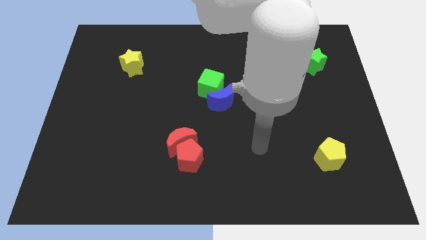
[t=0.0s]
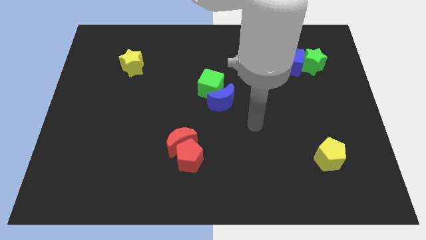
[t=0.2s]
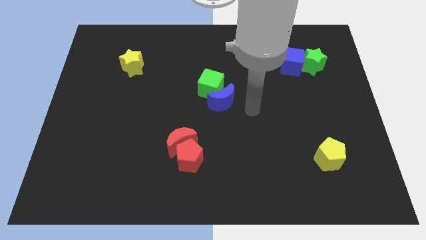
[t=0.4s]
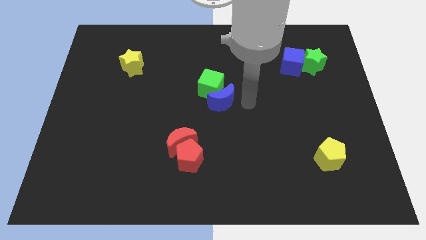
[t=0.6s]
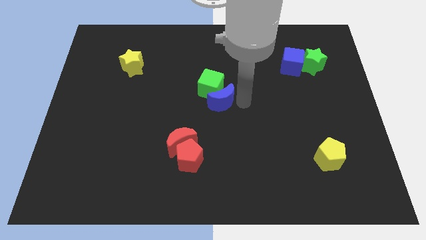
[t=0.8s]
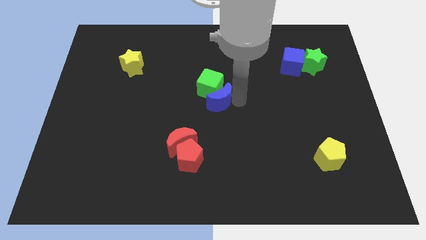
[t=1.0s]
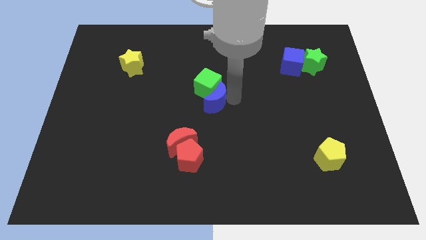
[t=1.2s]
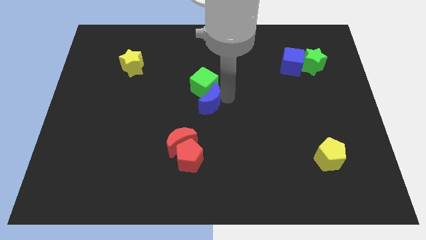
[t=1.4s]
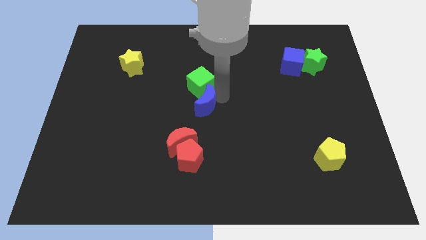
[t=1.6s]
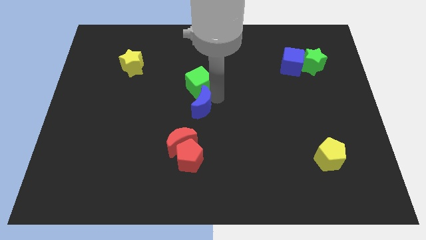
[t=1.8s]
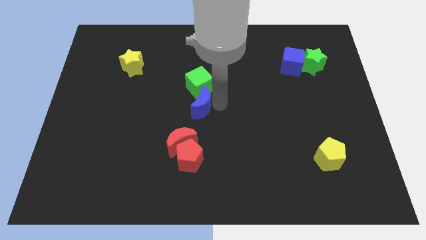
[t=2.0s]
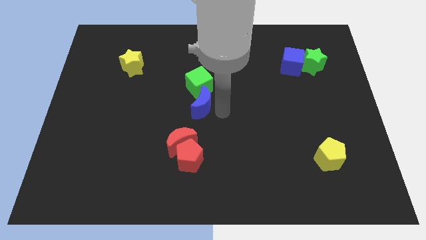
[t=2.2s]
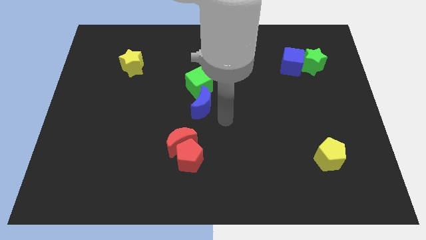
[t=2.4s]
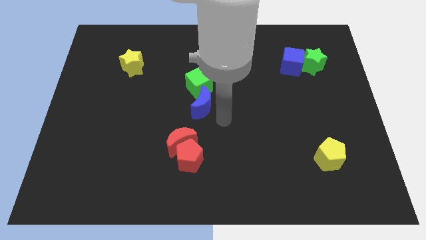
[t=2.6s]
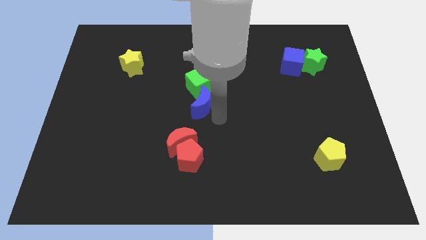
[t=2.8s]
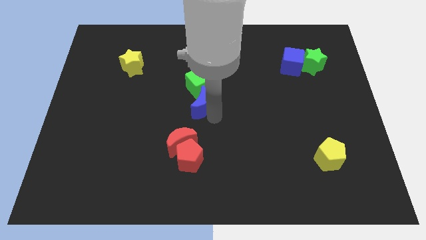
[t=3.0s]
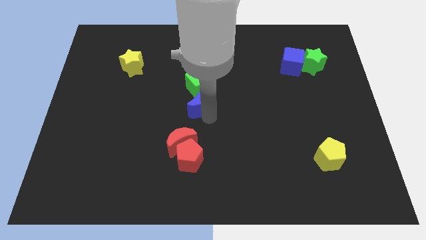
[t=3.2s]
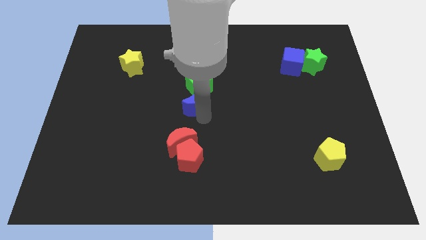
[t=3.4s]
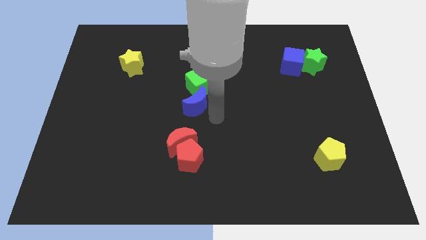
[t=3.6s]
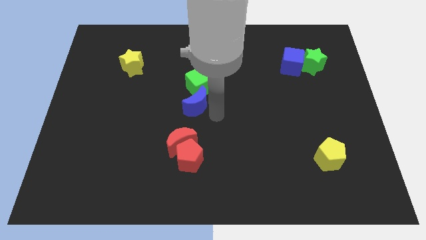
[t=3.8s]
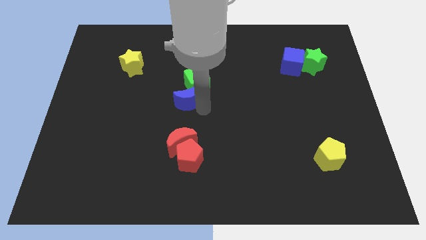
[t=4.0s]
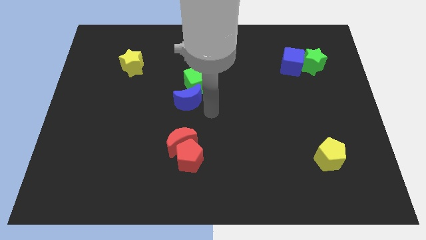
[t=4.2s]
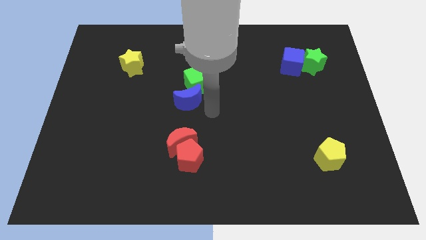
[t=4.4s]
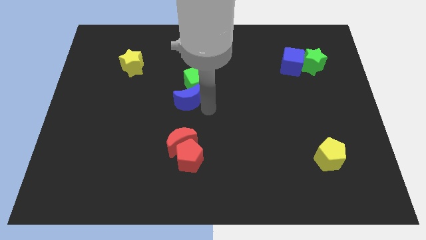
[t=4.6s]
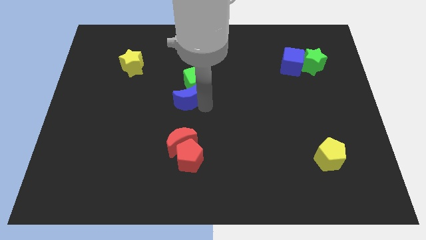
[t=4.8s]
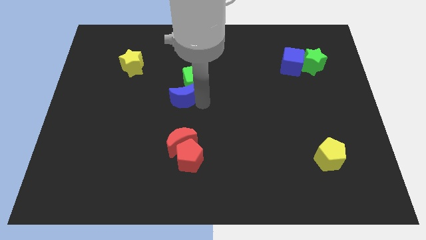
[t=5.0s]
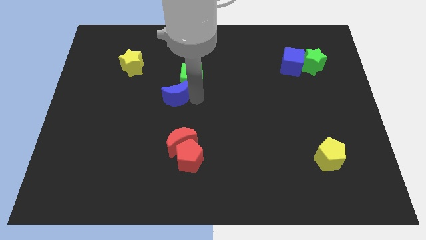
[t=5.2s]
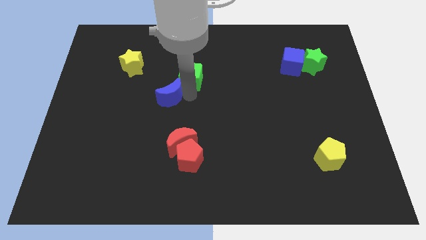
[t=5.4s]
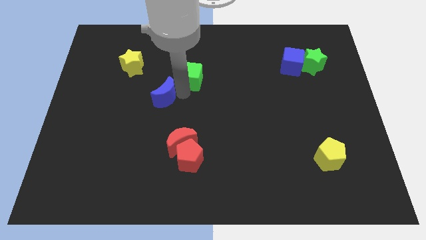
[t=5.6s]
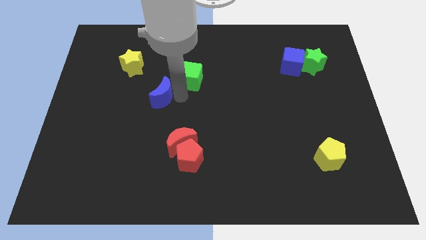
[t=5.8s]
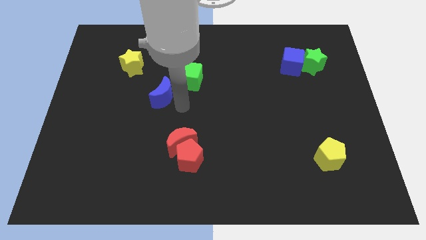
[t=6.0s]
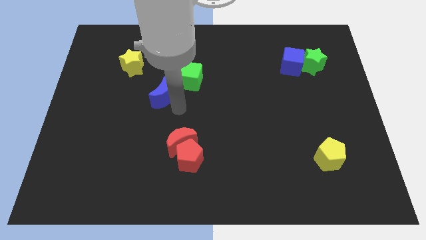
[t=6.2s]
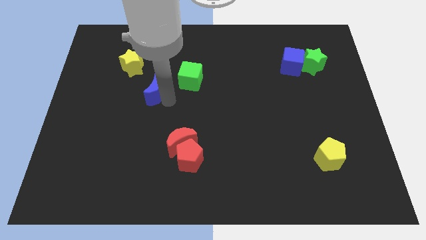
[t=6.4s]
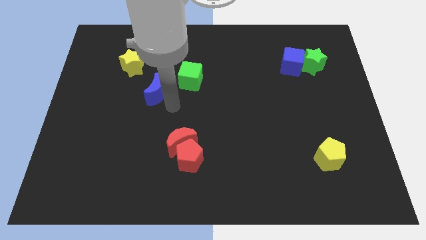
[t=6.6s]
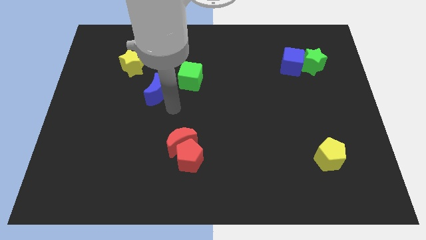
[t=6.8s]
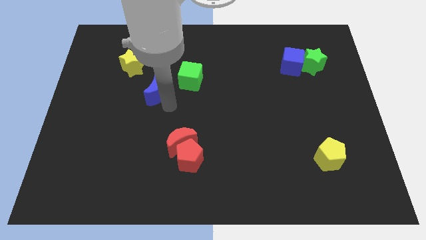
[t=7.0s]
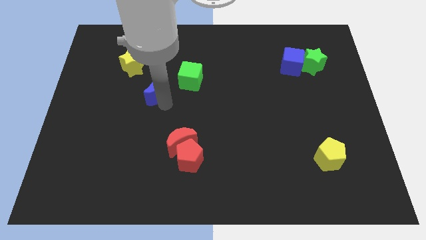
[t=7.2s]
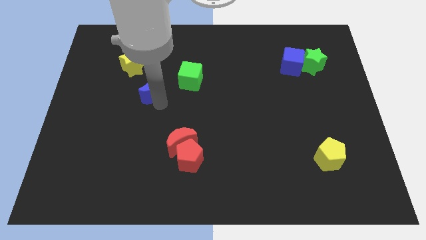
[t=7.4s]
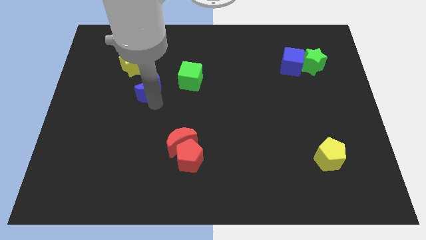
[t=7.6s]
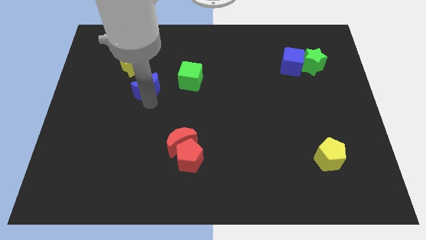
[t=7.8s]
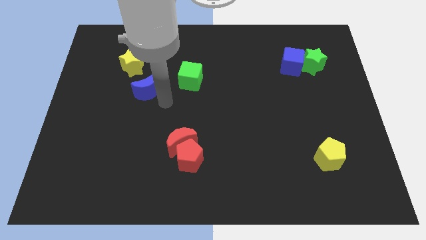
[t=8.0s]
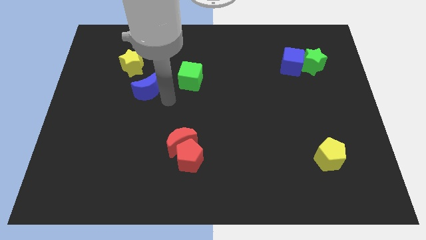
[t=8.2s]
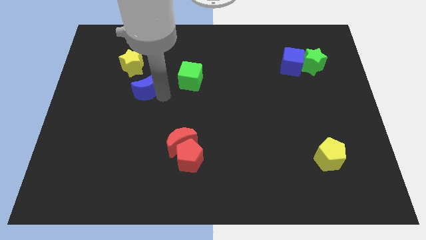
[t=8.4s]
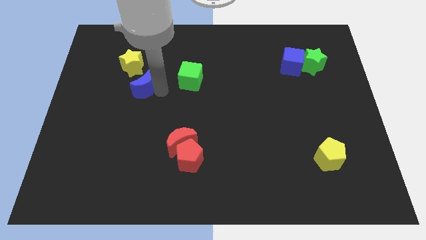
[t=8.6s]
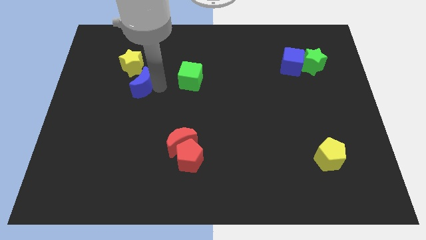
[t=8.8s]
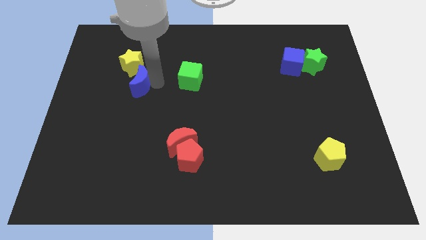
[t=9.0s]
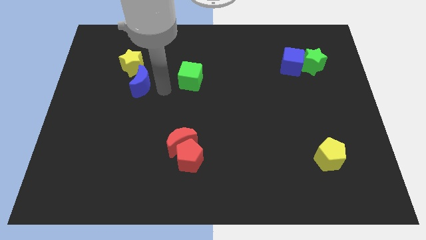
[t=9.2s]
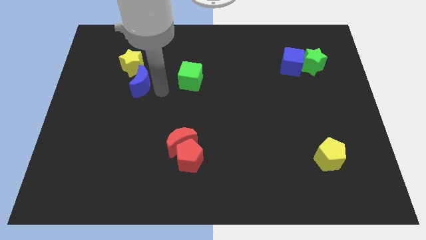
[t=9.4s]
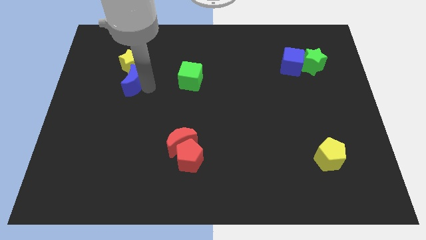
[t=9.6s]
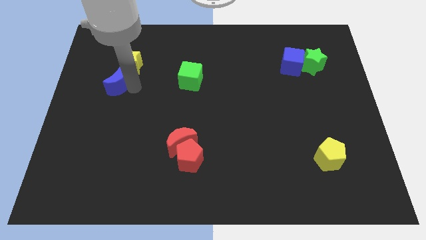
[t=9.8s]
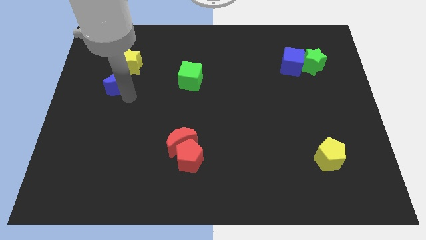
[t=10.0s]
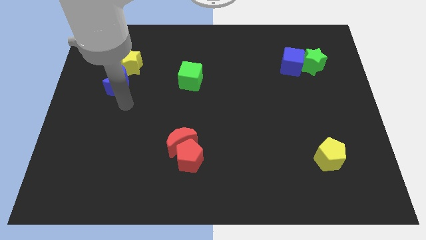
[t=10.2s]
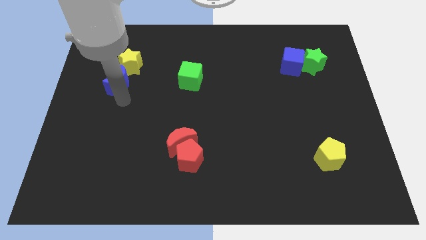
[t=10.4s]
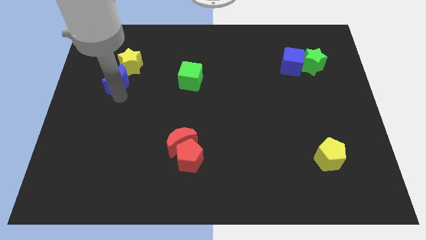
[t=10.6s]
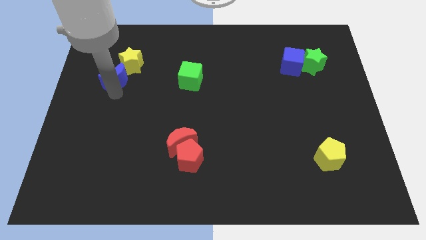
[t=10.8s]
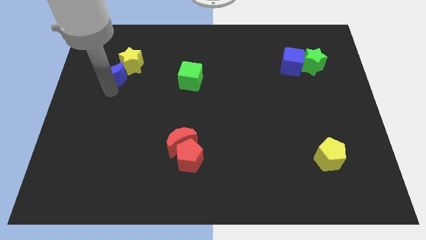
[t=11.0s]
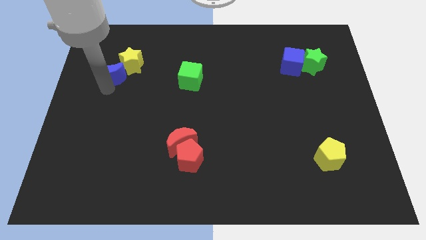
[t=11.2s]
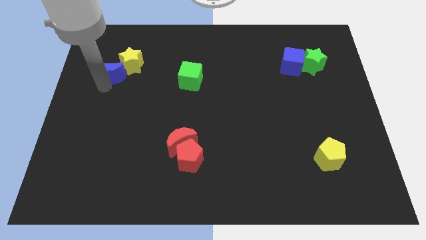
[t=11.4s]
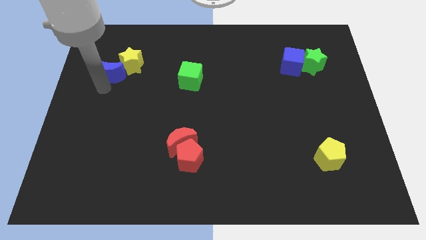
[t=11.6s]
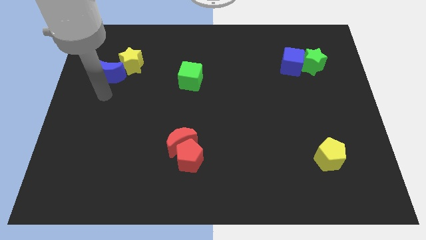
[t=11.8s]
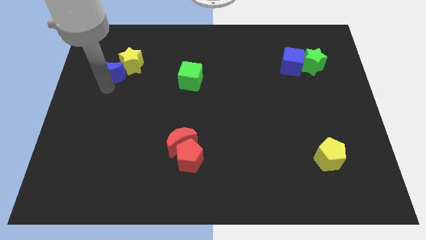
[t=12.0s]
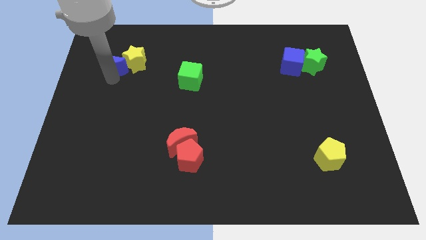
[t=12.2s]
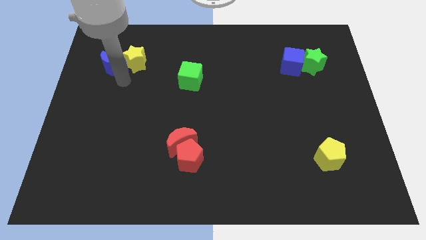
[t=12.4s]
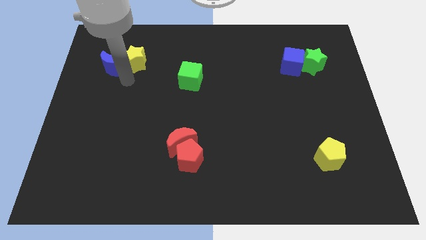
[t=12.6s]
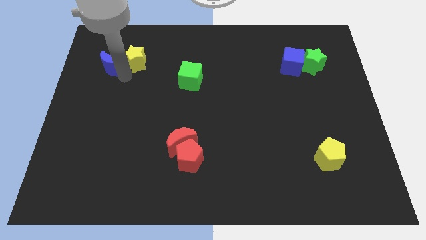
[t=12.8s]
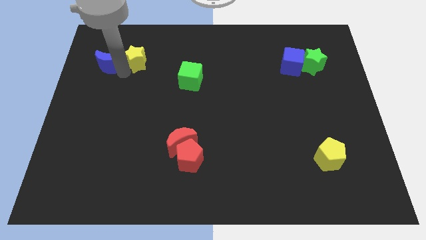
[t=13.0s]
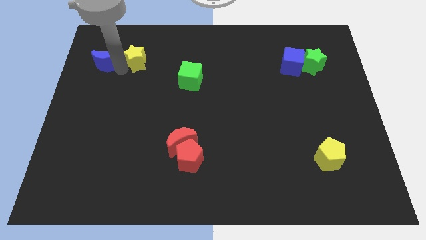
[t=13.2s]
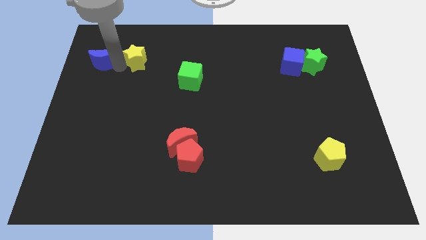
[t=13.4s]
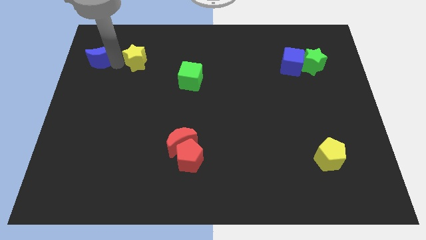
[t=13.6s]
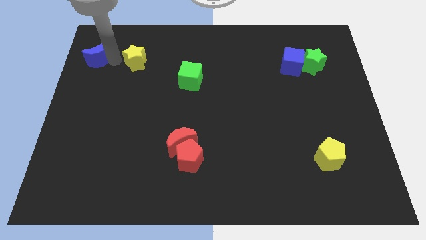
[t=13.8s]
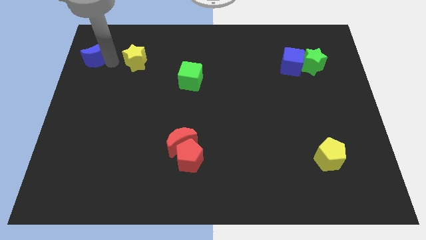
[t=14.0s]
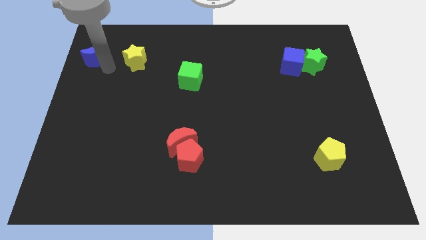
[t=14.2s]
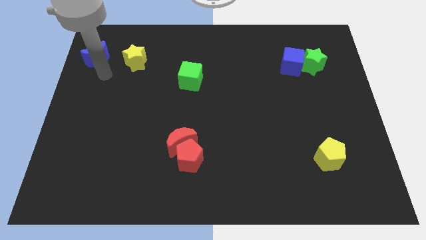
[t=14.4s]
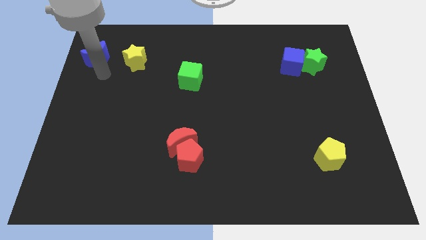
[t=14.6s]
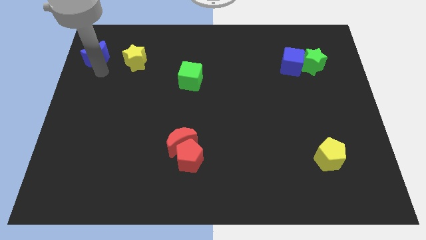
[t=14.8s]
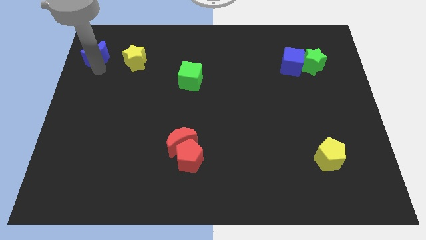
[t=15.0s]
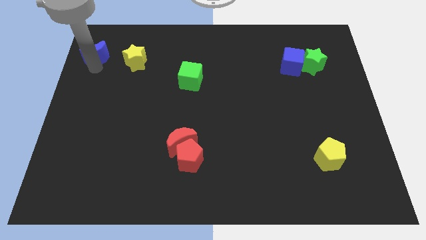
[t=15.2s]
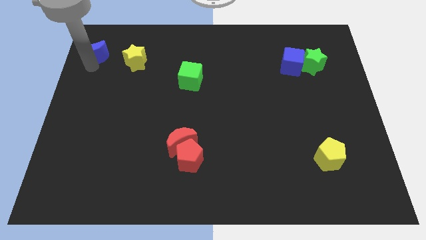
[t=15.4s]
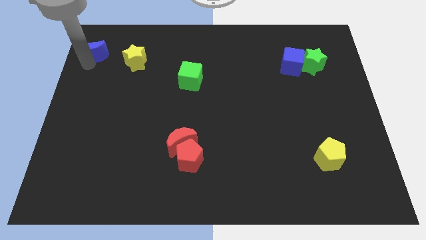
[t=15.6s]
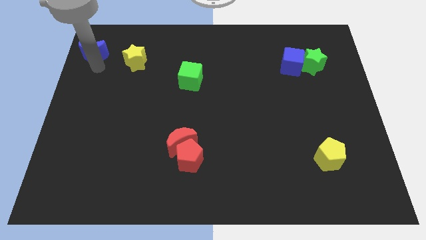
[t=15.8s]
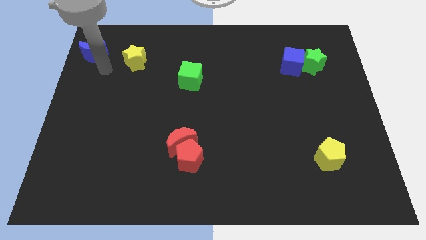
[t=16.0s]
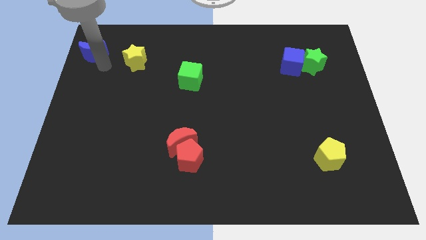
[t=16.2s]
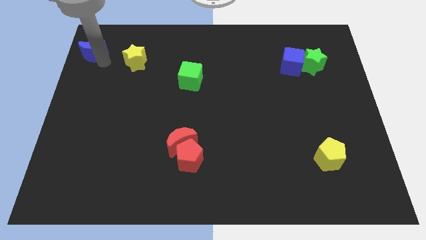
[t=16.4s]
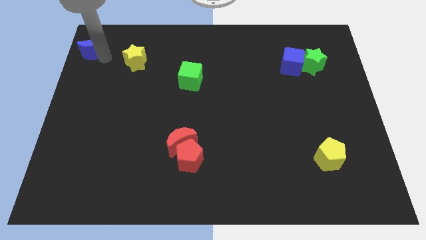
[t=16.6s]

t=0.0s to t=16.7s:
move the blue moon to the upper left corner
